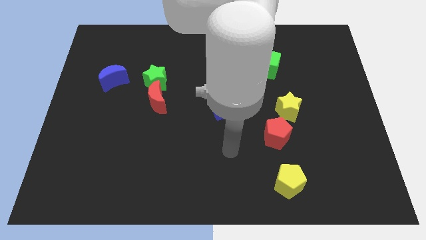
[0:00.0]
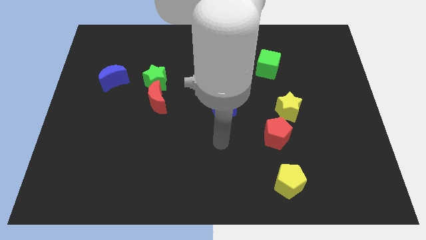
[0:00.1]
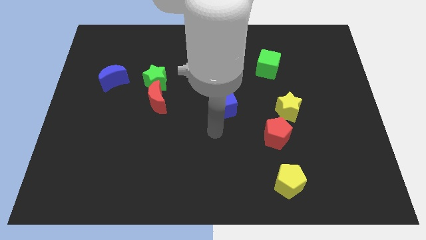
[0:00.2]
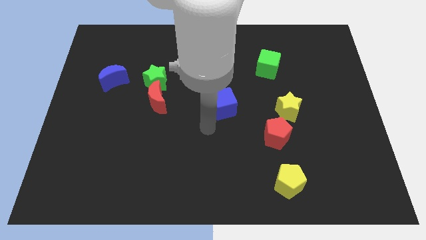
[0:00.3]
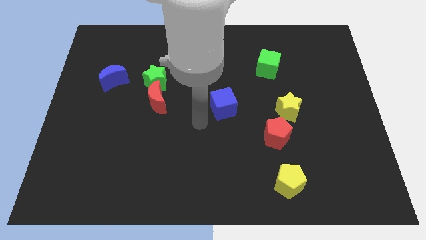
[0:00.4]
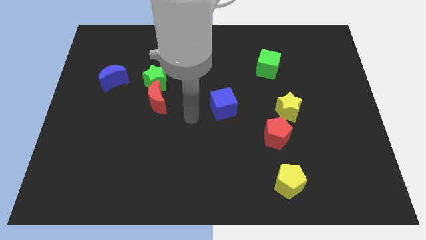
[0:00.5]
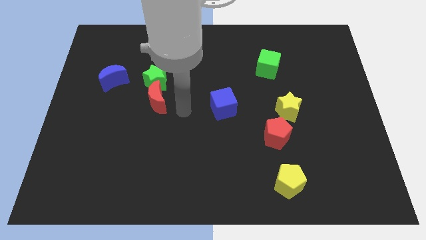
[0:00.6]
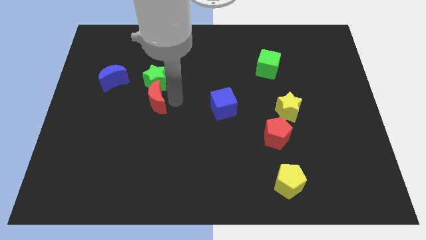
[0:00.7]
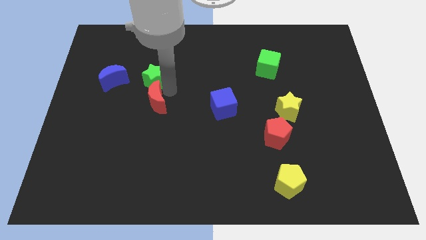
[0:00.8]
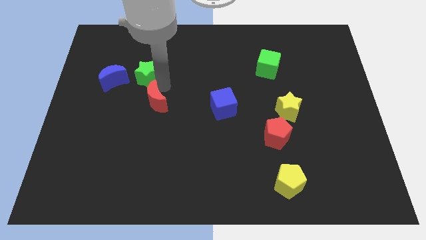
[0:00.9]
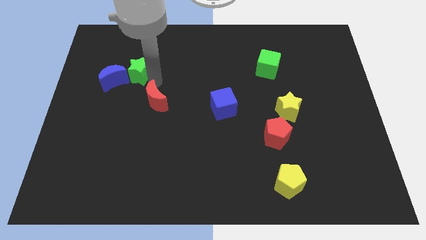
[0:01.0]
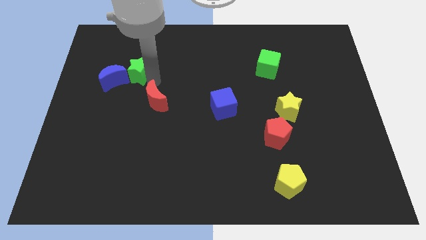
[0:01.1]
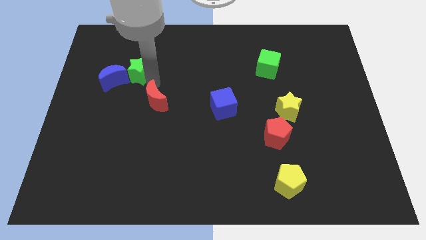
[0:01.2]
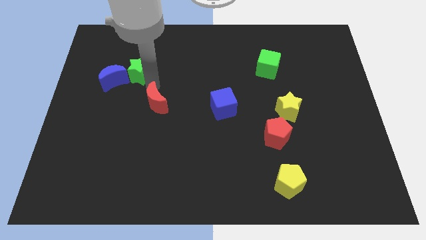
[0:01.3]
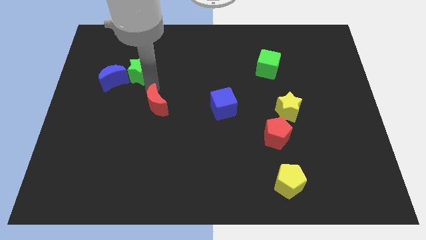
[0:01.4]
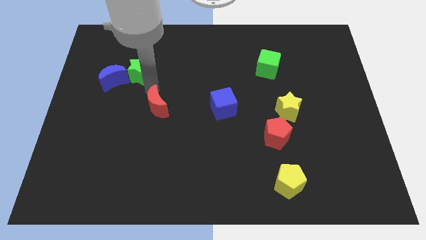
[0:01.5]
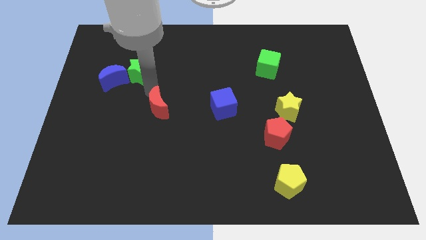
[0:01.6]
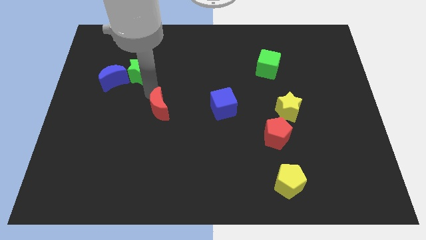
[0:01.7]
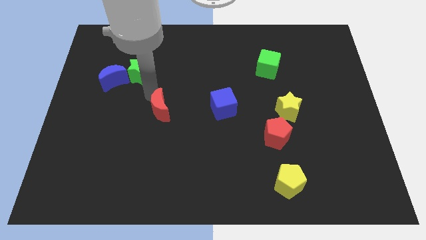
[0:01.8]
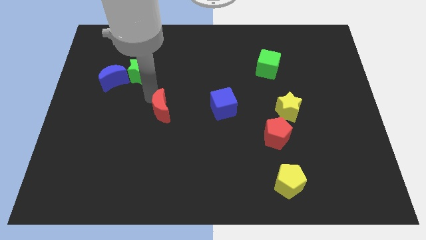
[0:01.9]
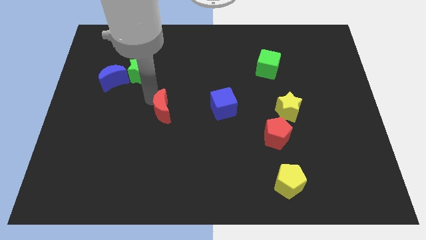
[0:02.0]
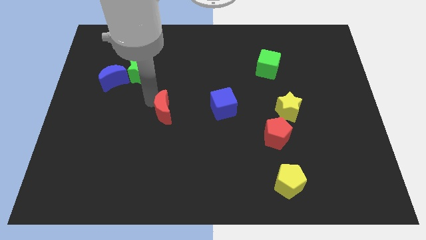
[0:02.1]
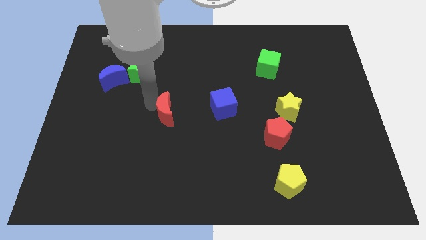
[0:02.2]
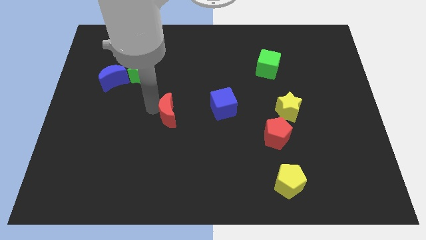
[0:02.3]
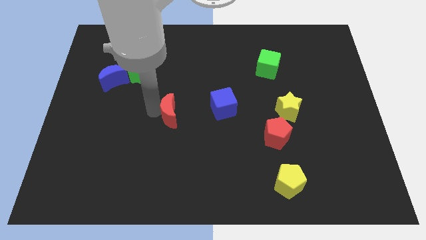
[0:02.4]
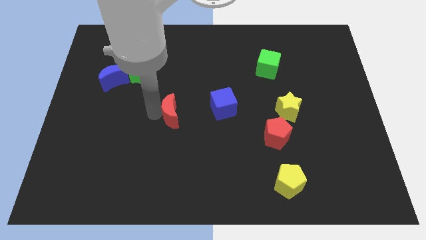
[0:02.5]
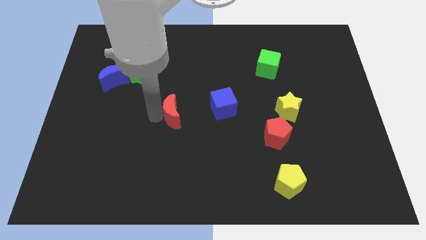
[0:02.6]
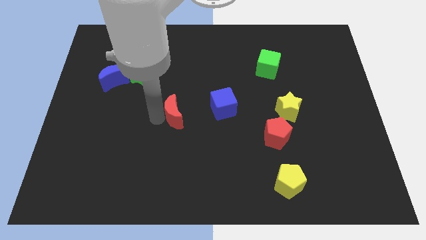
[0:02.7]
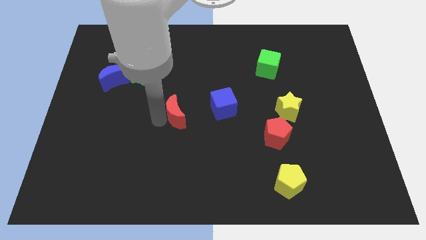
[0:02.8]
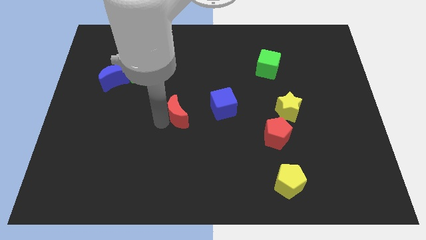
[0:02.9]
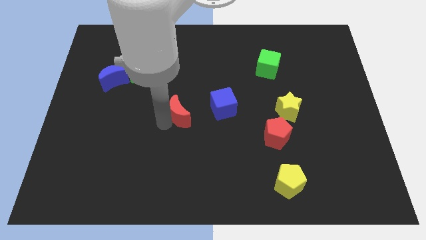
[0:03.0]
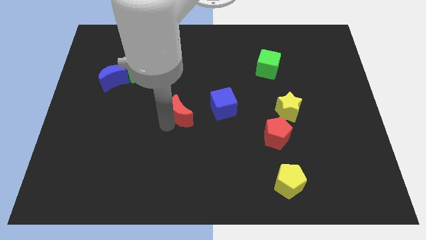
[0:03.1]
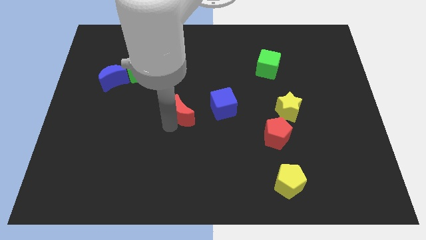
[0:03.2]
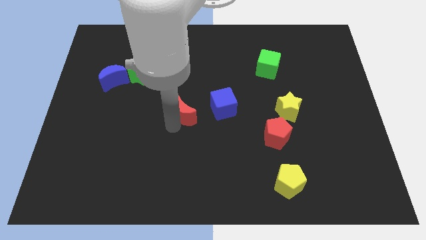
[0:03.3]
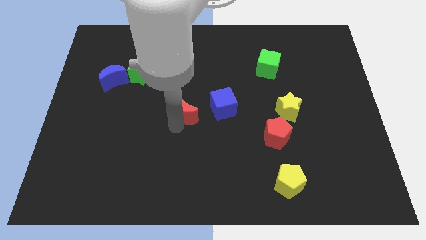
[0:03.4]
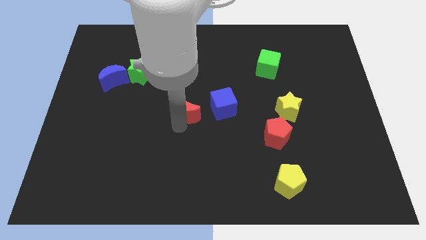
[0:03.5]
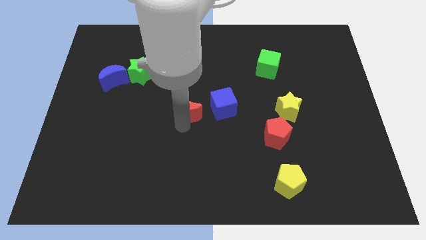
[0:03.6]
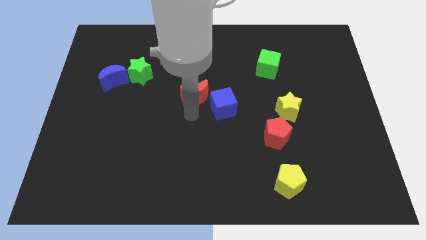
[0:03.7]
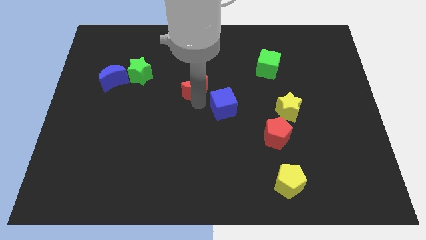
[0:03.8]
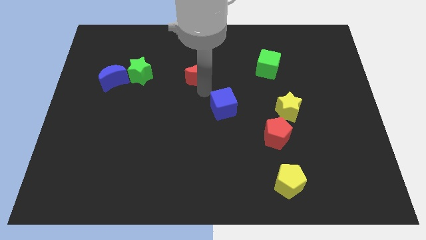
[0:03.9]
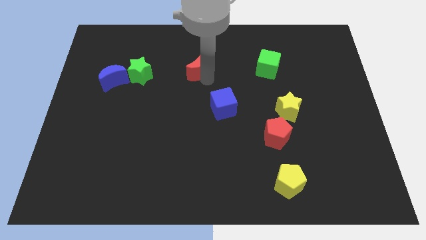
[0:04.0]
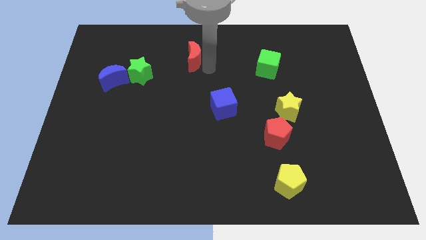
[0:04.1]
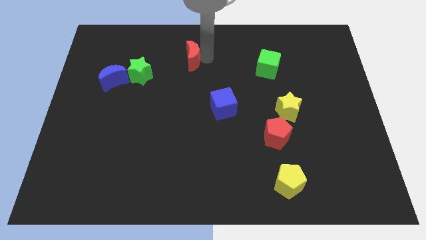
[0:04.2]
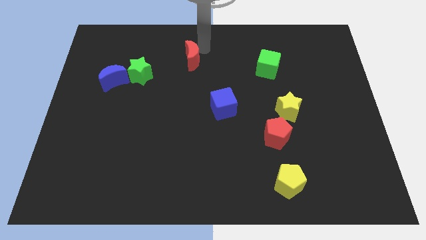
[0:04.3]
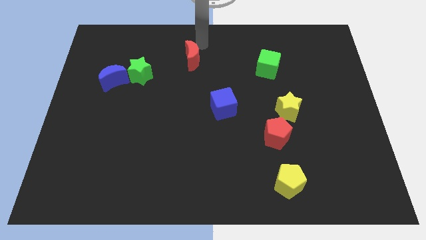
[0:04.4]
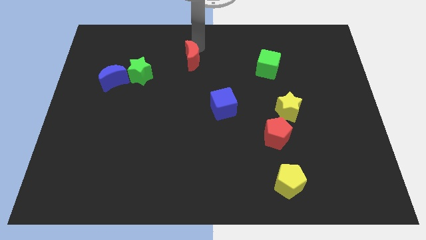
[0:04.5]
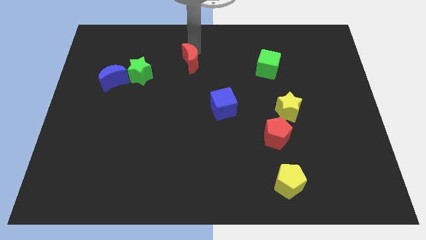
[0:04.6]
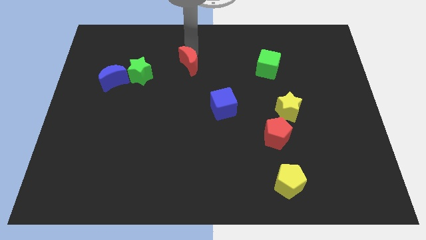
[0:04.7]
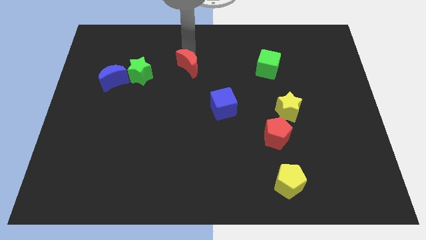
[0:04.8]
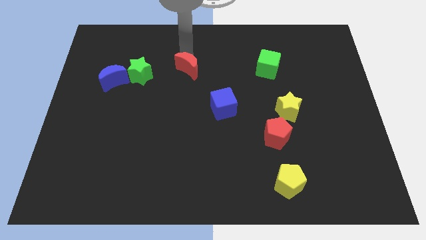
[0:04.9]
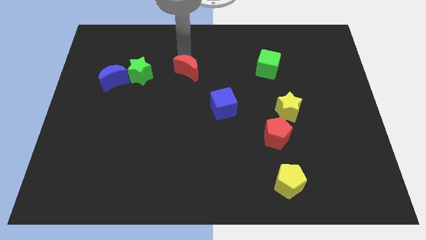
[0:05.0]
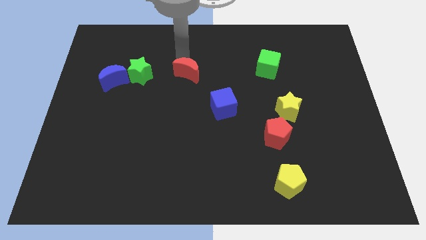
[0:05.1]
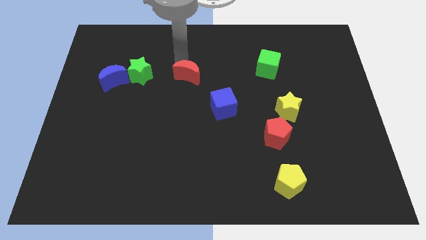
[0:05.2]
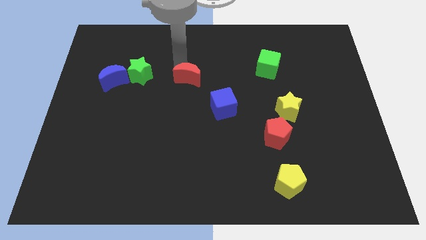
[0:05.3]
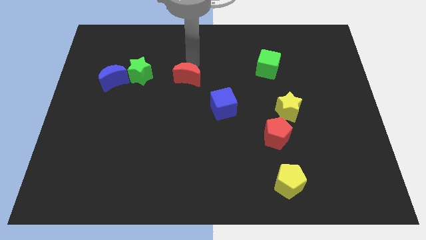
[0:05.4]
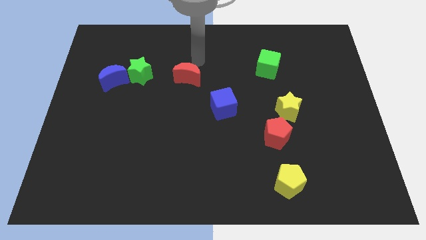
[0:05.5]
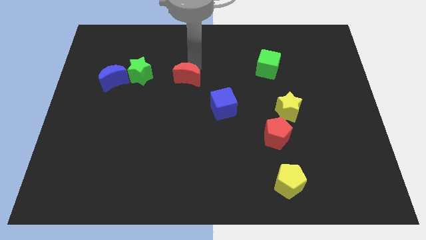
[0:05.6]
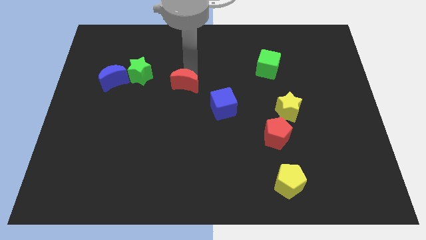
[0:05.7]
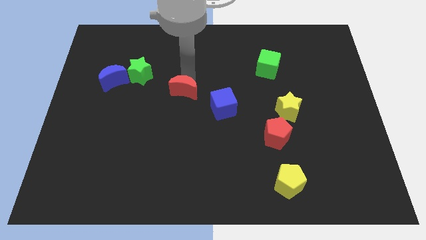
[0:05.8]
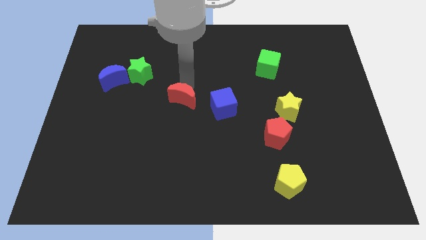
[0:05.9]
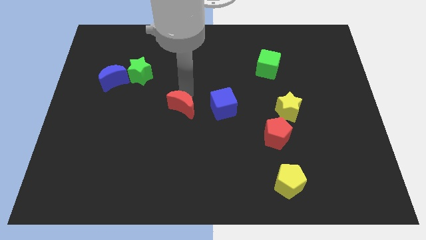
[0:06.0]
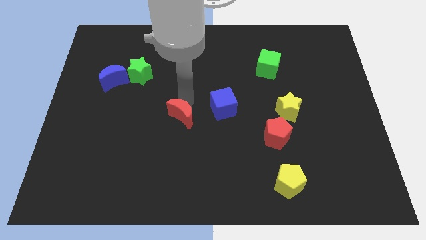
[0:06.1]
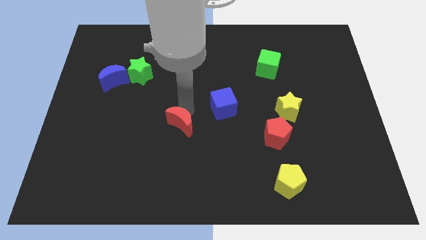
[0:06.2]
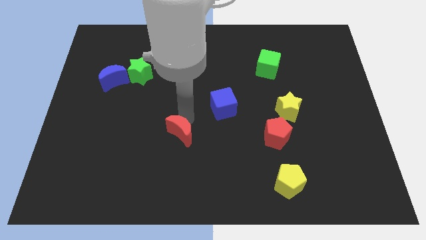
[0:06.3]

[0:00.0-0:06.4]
slightly move the red moon down

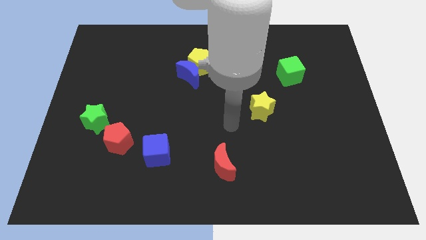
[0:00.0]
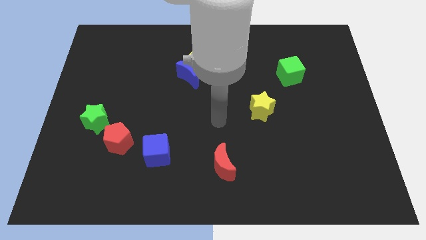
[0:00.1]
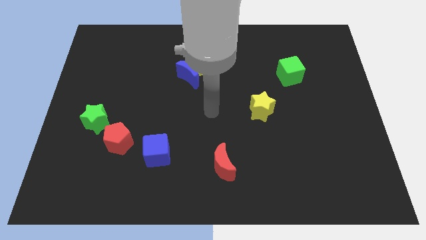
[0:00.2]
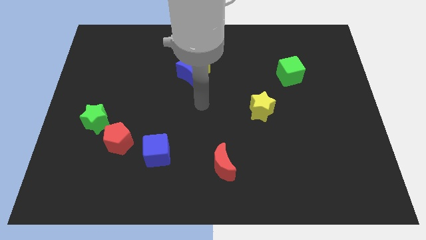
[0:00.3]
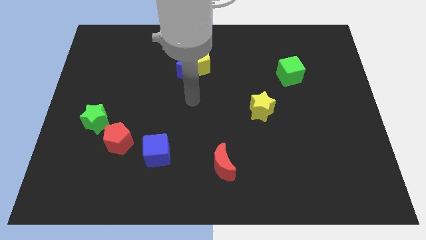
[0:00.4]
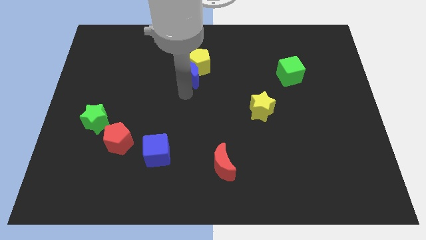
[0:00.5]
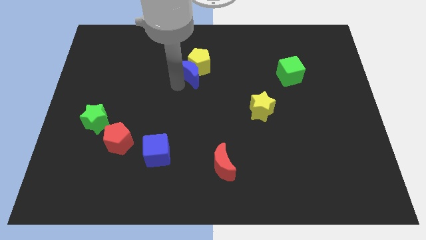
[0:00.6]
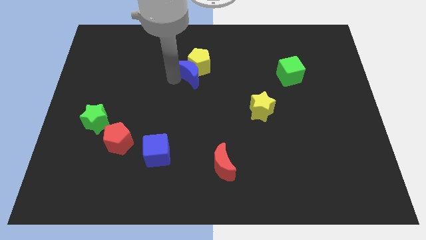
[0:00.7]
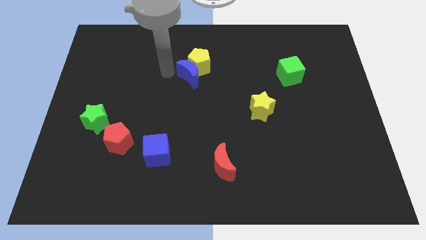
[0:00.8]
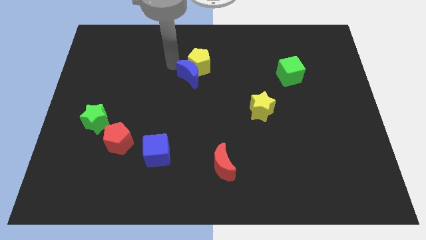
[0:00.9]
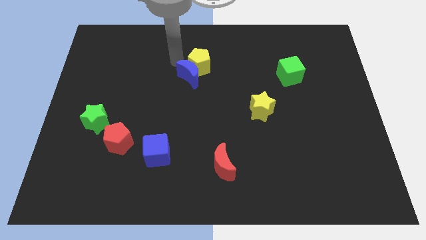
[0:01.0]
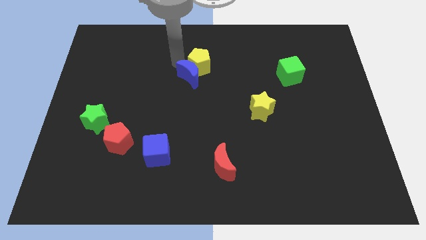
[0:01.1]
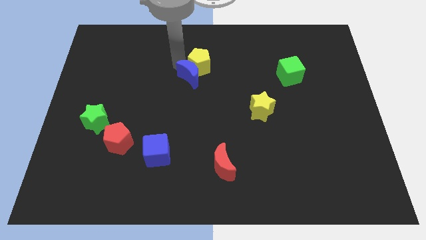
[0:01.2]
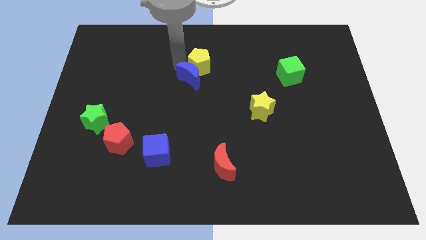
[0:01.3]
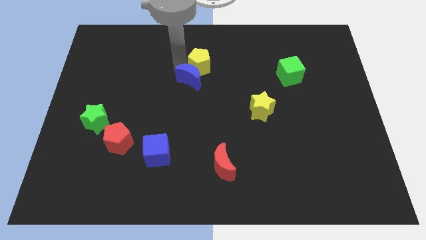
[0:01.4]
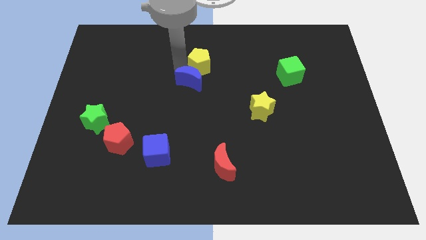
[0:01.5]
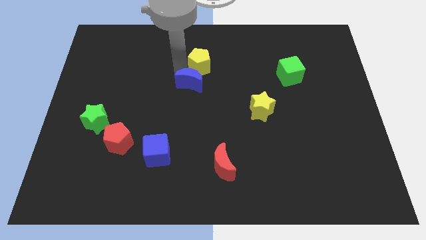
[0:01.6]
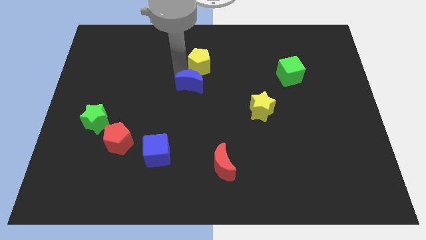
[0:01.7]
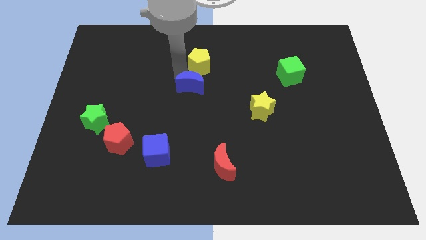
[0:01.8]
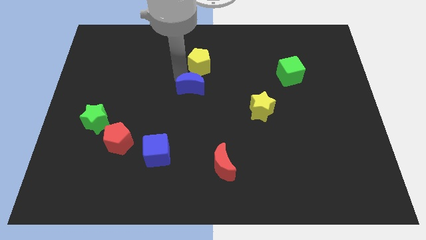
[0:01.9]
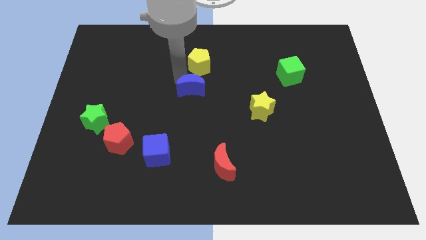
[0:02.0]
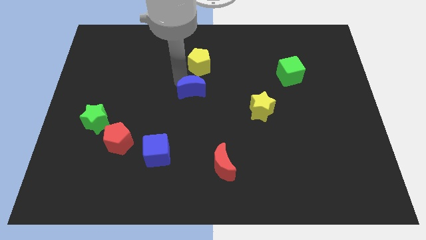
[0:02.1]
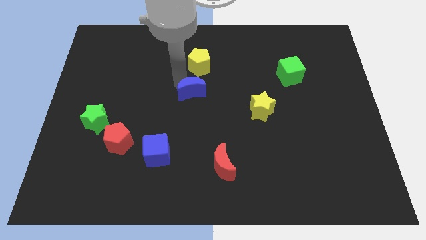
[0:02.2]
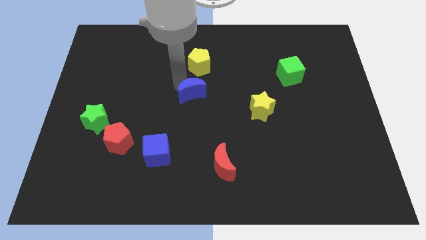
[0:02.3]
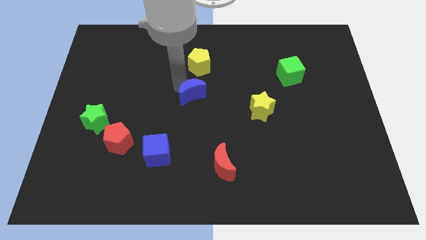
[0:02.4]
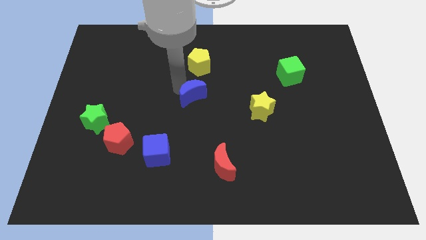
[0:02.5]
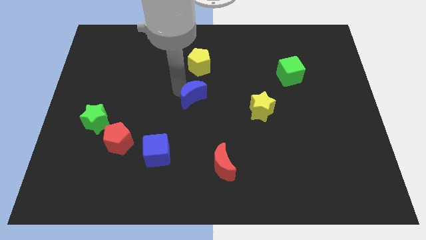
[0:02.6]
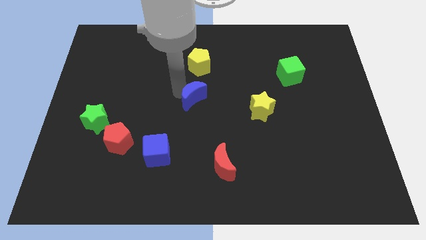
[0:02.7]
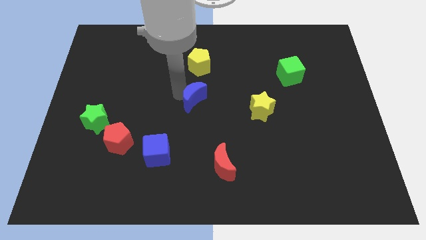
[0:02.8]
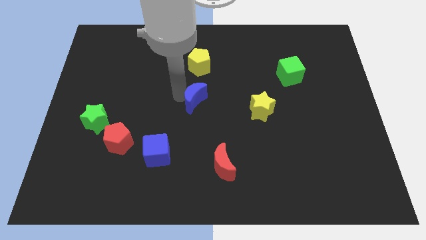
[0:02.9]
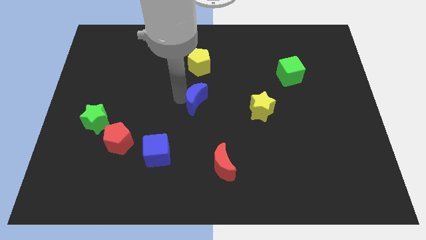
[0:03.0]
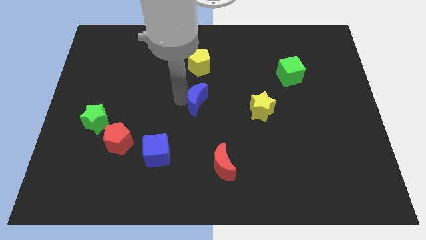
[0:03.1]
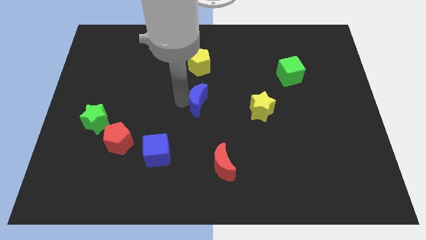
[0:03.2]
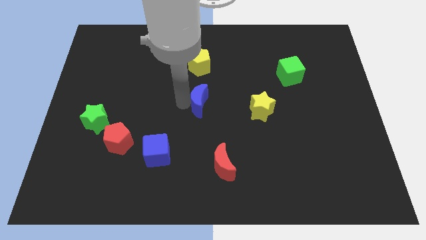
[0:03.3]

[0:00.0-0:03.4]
slightly push the blue moon down and then right
